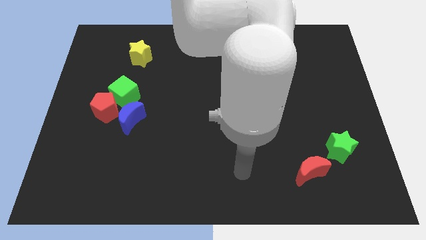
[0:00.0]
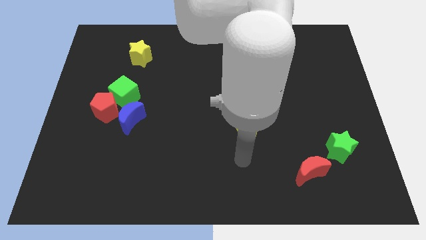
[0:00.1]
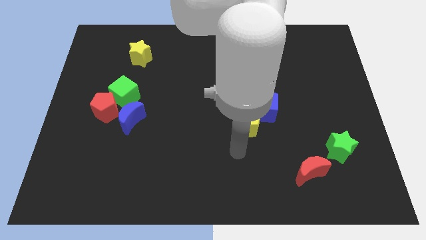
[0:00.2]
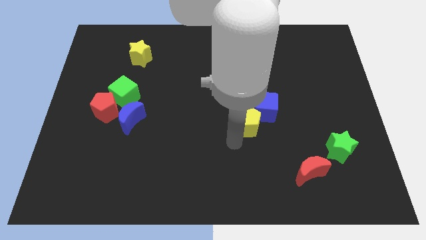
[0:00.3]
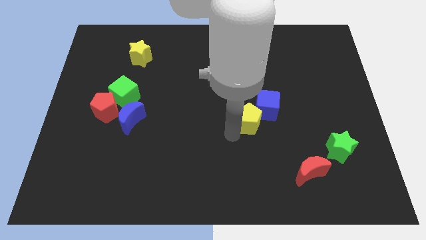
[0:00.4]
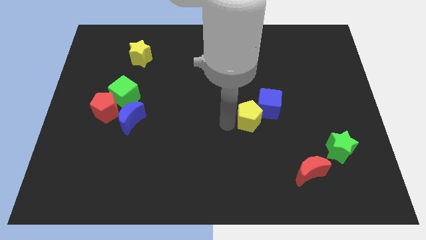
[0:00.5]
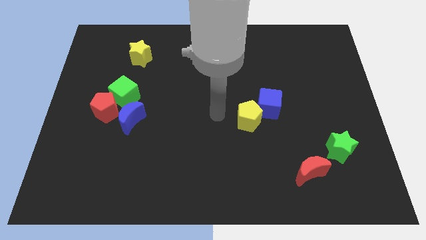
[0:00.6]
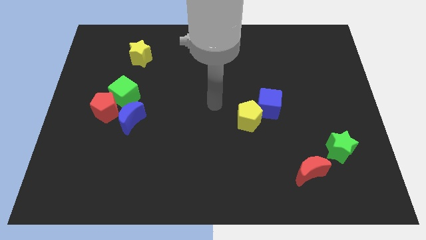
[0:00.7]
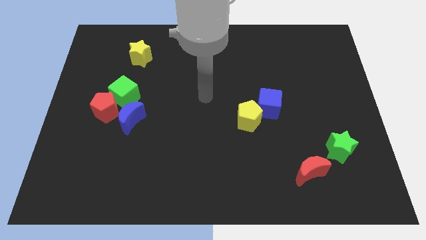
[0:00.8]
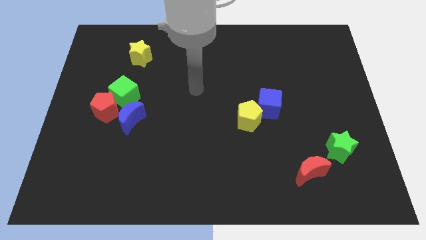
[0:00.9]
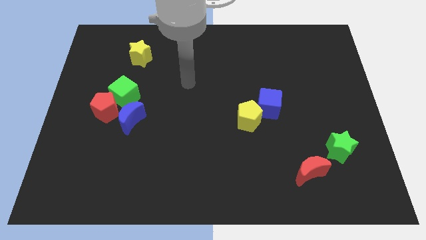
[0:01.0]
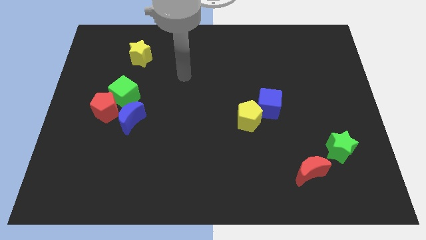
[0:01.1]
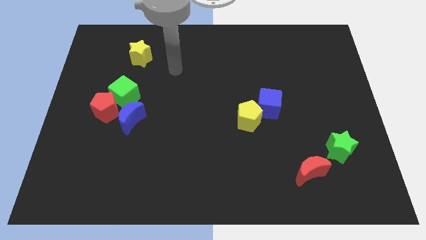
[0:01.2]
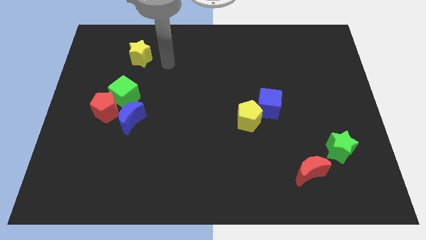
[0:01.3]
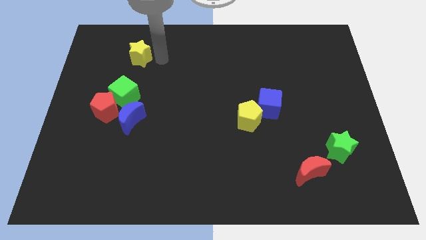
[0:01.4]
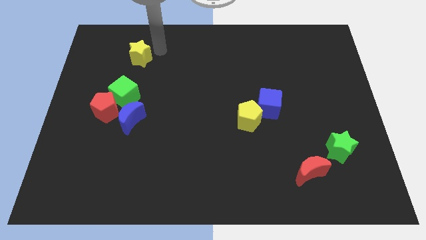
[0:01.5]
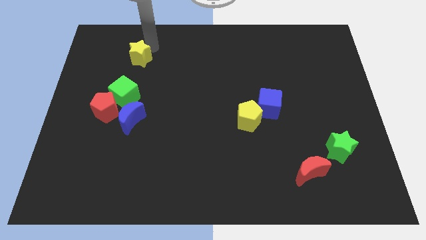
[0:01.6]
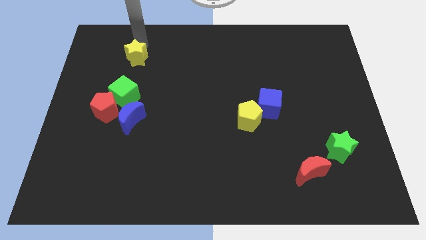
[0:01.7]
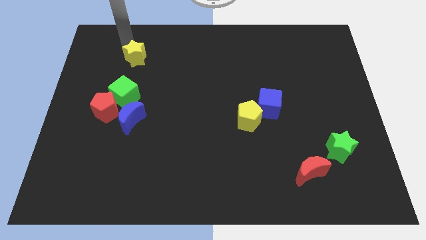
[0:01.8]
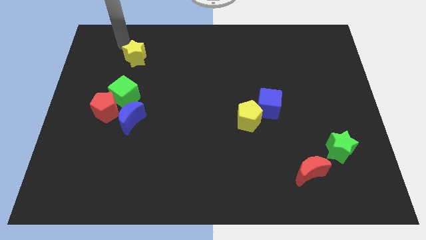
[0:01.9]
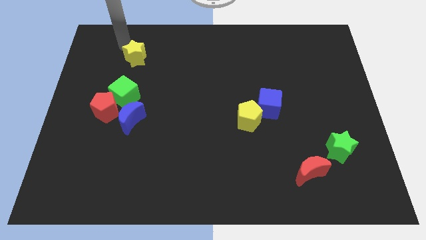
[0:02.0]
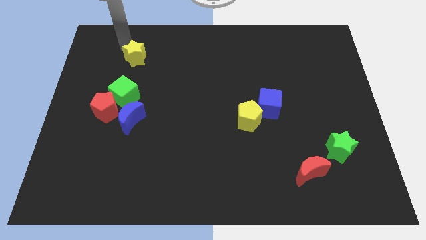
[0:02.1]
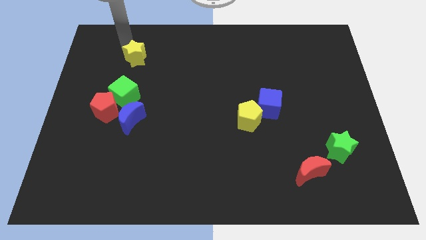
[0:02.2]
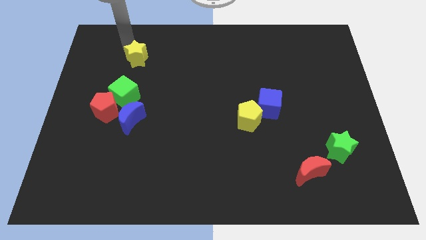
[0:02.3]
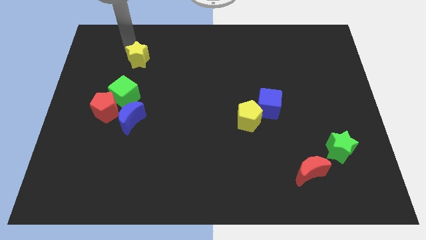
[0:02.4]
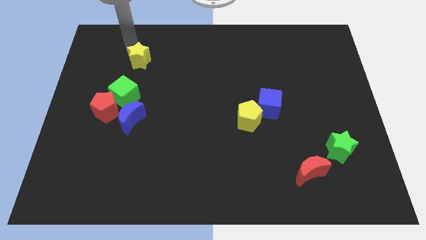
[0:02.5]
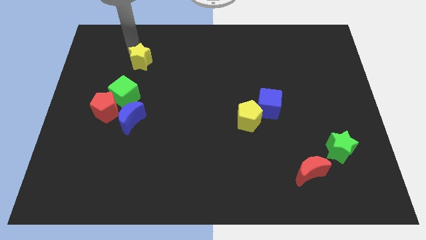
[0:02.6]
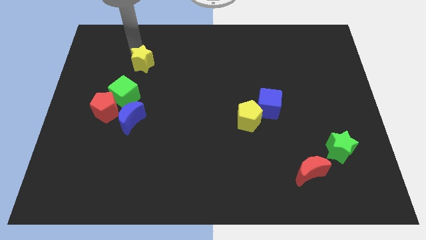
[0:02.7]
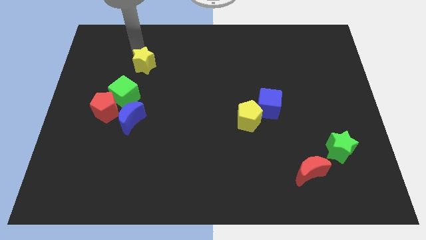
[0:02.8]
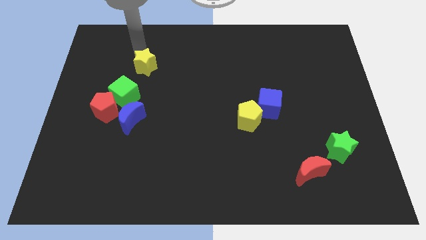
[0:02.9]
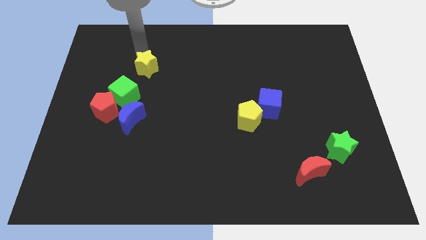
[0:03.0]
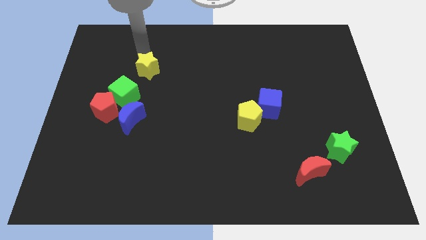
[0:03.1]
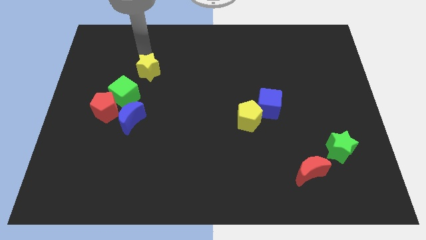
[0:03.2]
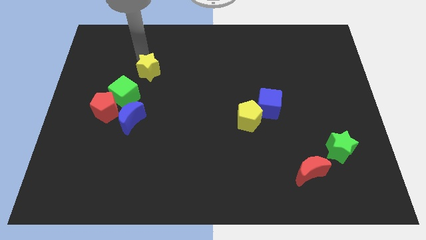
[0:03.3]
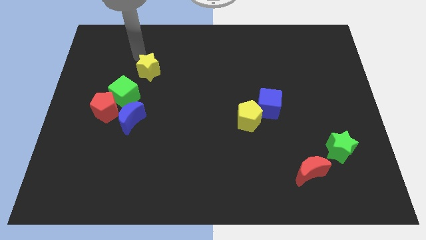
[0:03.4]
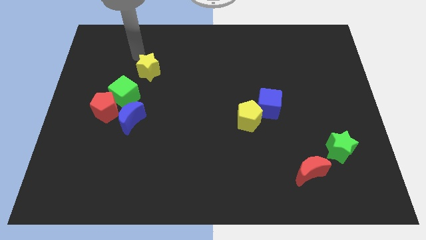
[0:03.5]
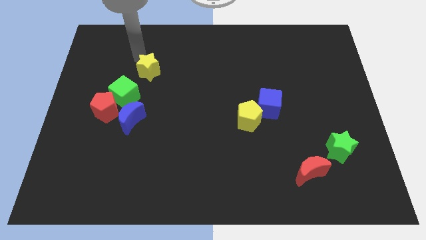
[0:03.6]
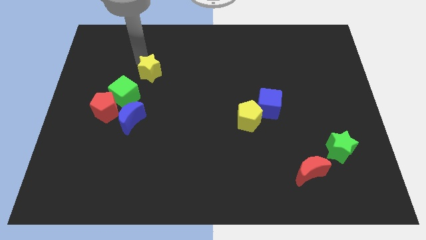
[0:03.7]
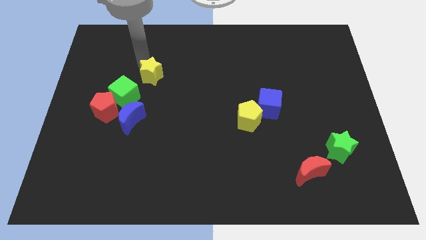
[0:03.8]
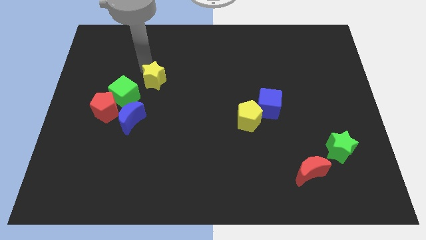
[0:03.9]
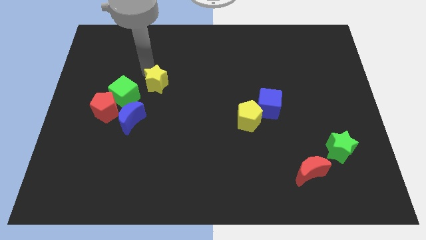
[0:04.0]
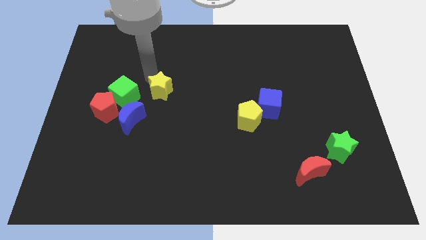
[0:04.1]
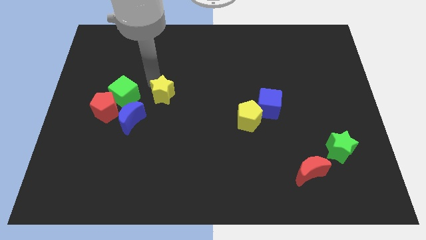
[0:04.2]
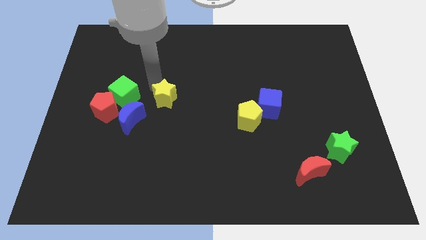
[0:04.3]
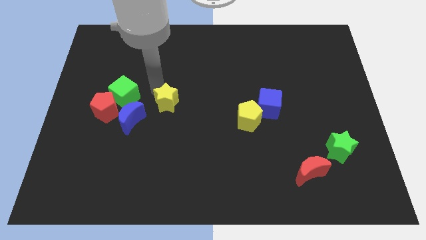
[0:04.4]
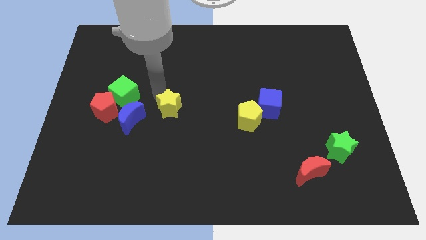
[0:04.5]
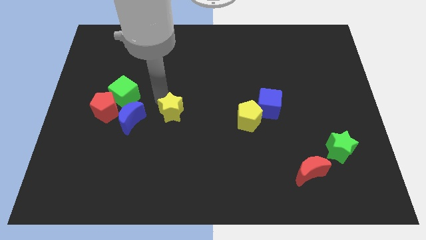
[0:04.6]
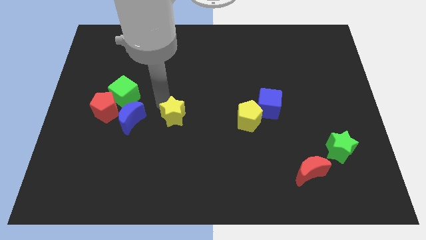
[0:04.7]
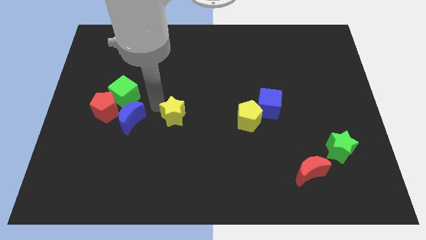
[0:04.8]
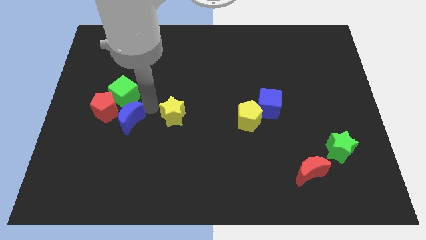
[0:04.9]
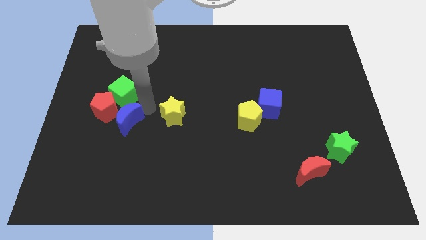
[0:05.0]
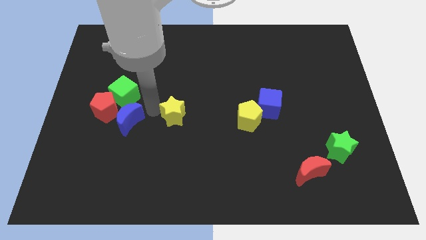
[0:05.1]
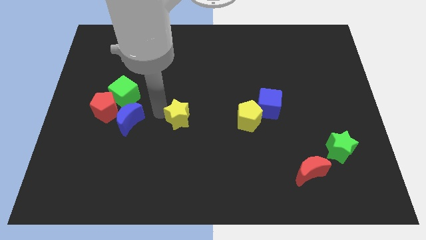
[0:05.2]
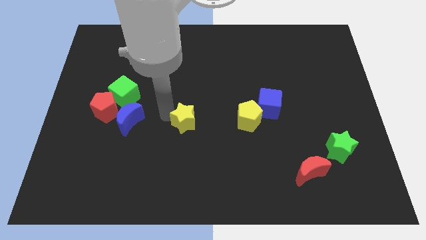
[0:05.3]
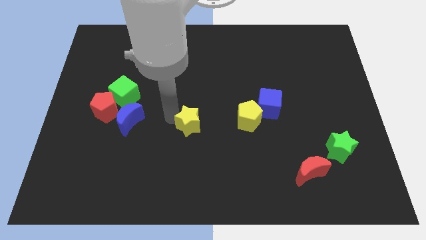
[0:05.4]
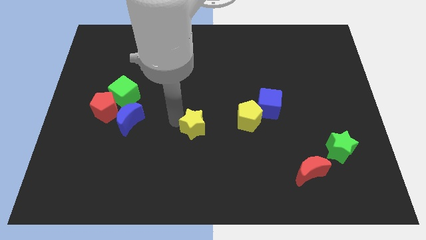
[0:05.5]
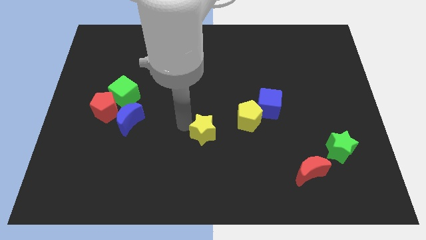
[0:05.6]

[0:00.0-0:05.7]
slide the yellow star diagonally down and to the left of the yellow pentagon
